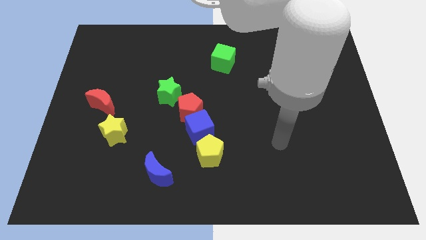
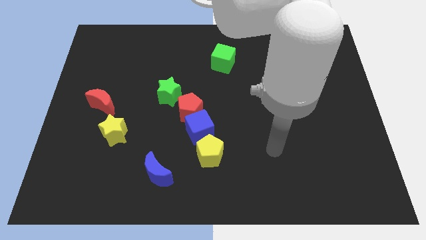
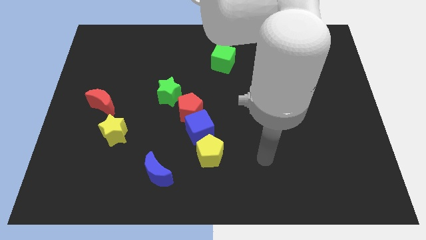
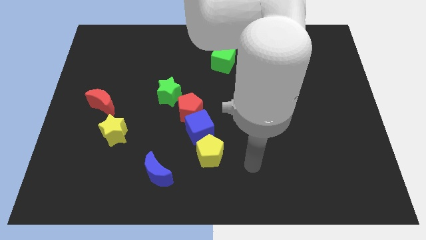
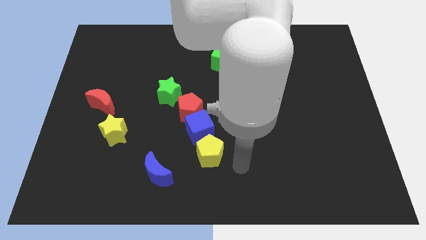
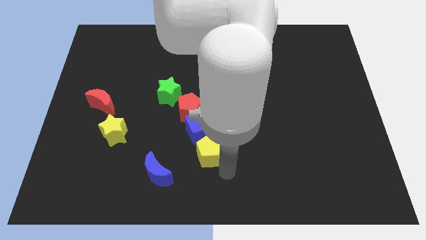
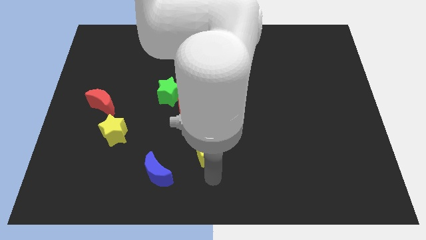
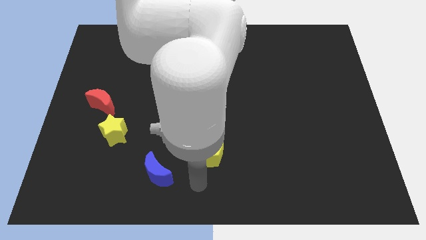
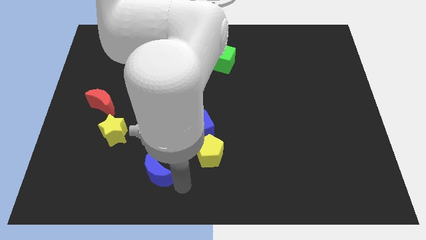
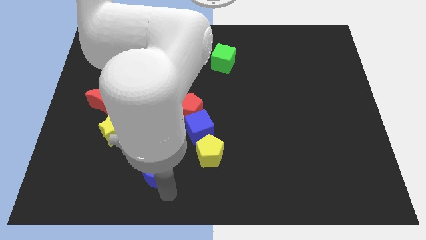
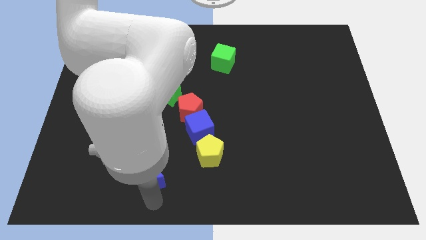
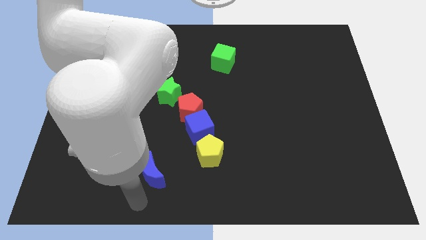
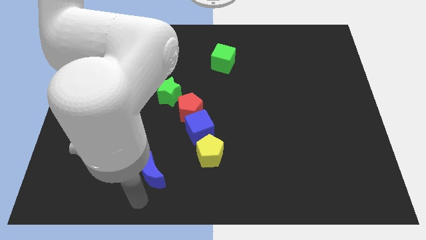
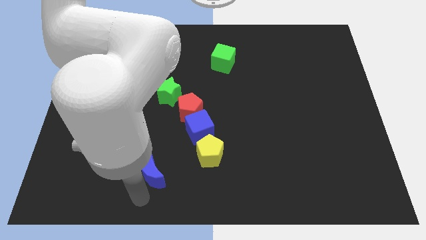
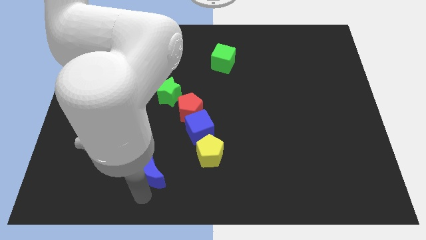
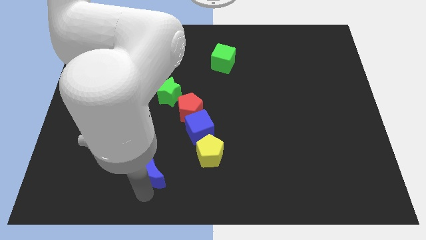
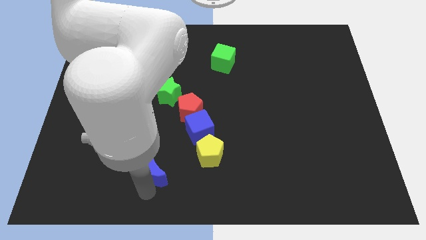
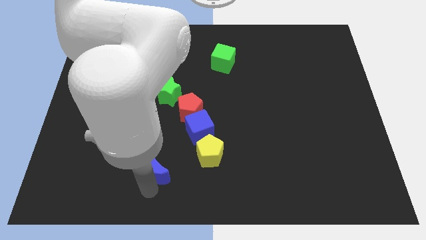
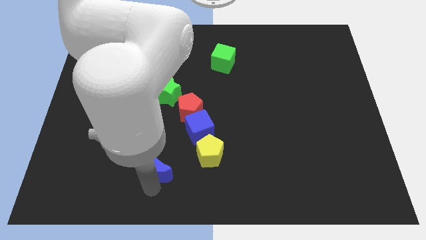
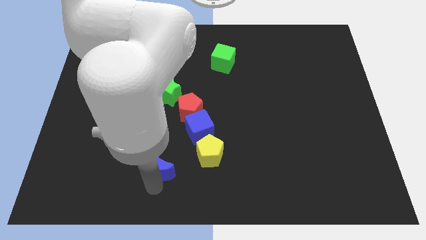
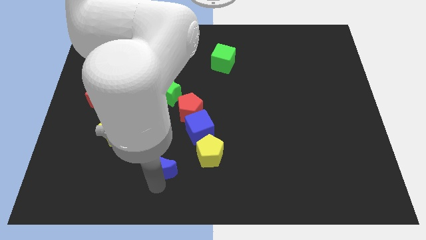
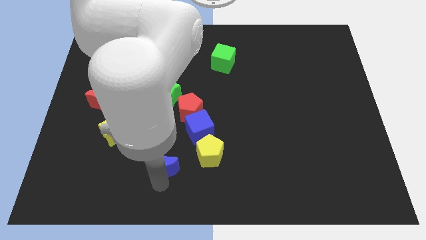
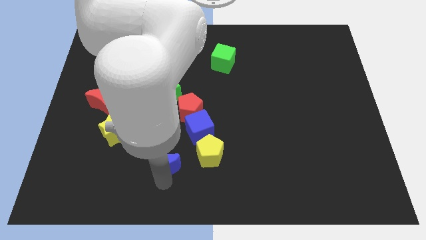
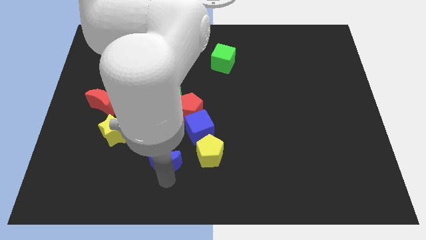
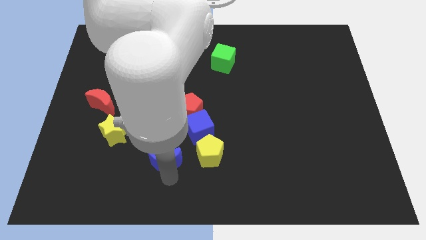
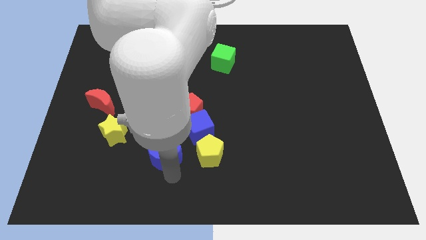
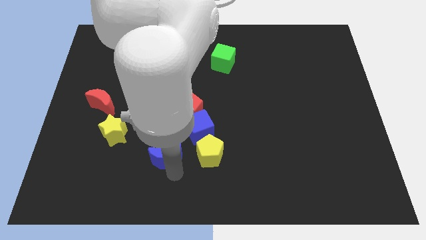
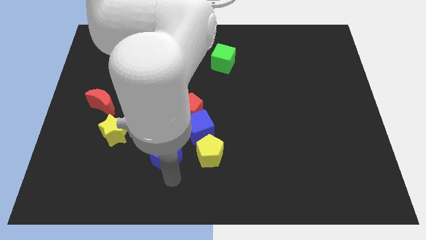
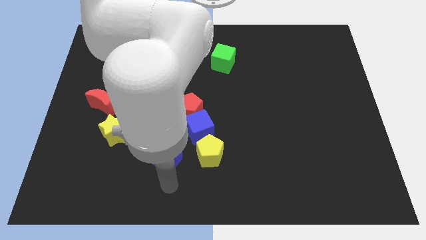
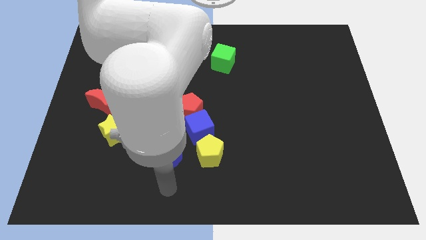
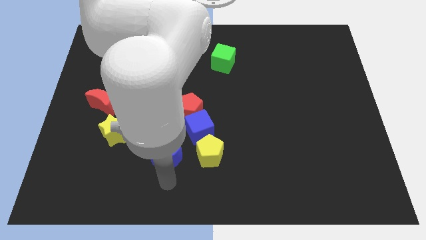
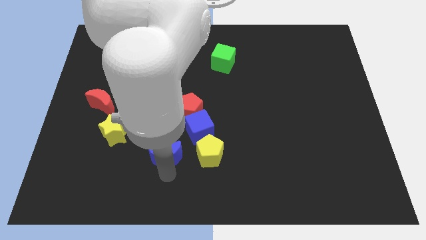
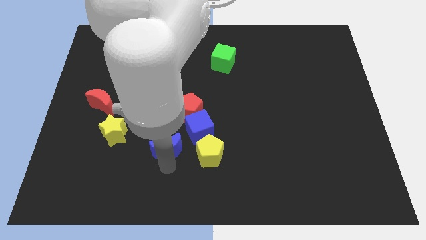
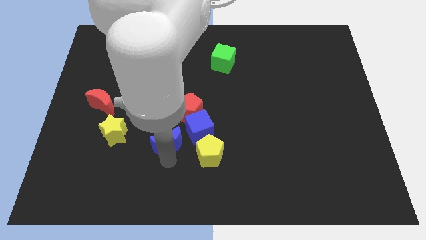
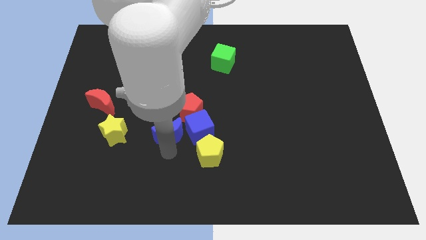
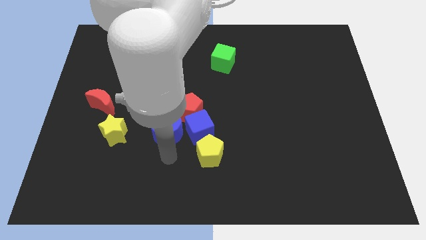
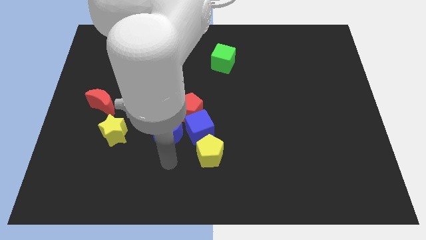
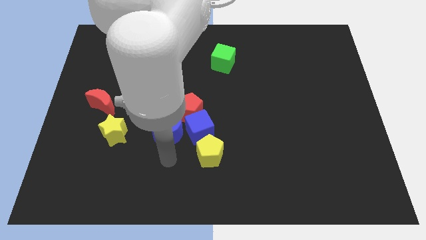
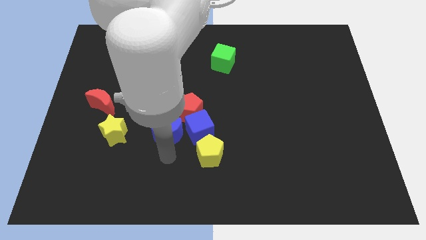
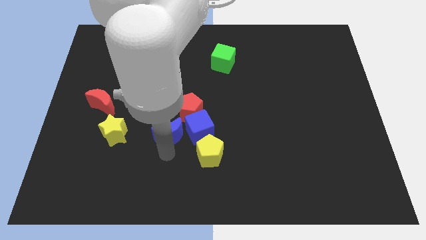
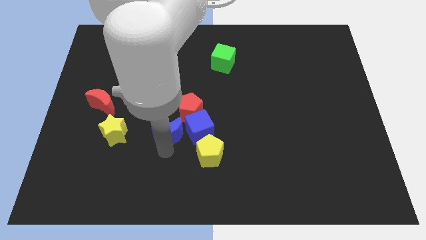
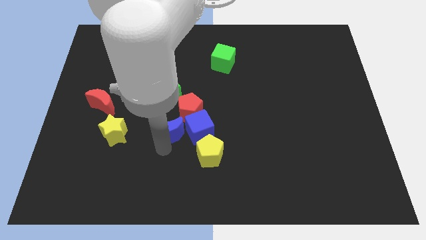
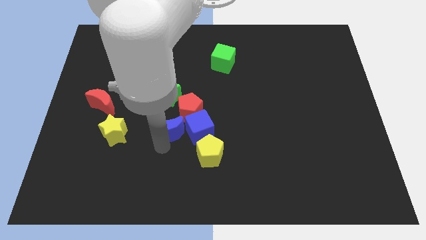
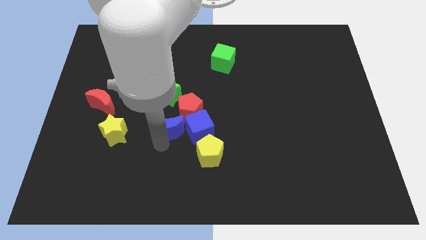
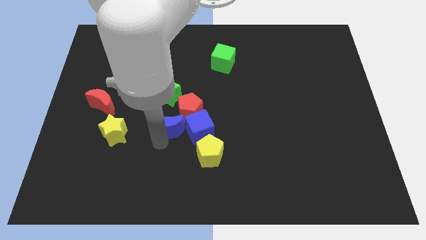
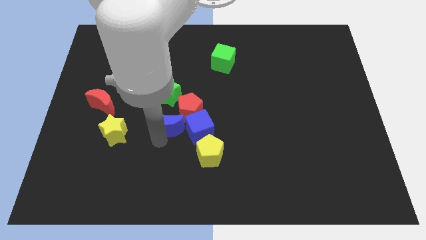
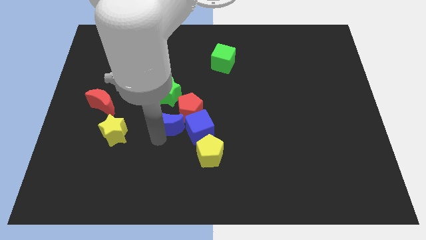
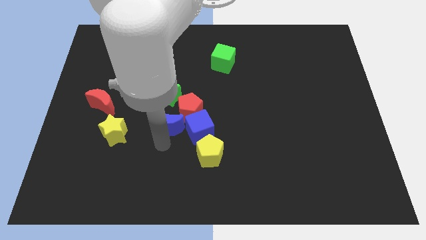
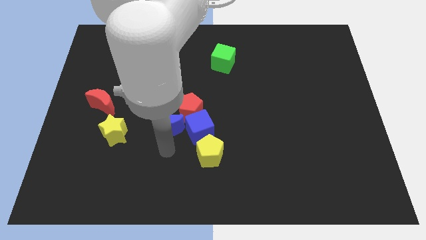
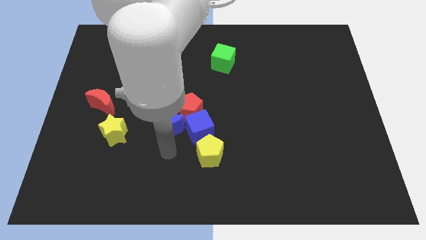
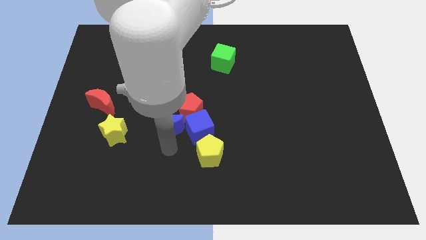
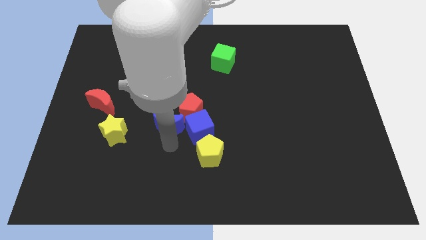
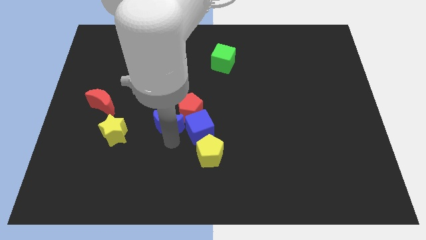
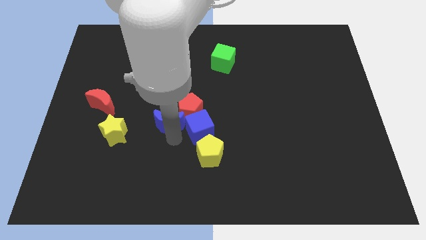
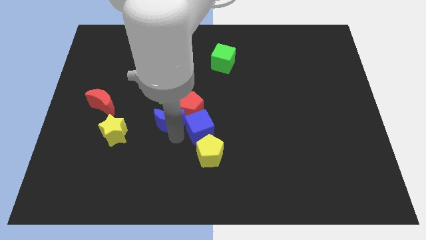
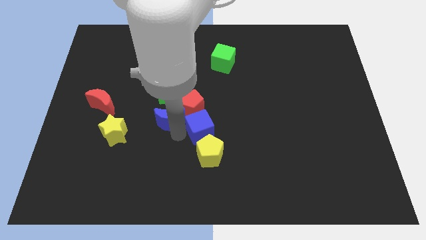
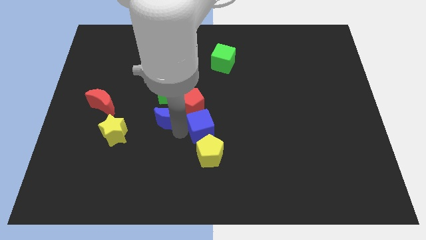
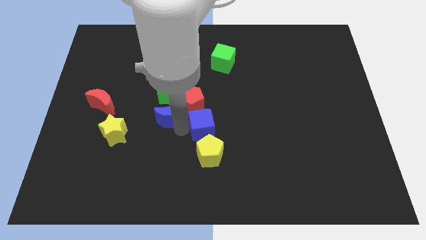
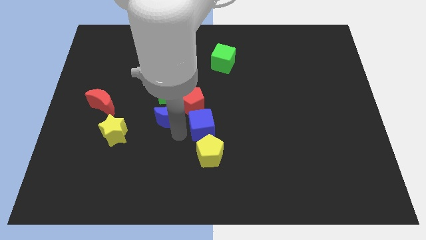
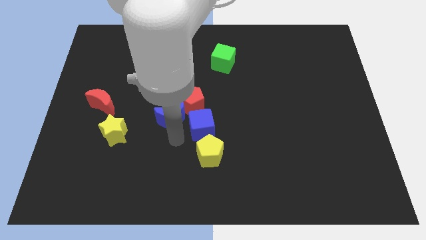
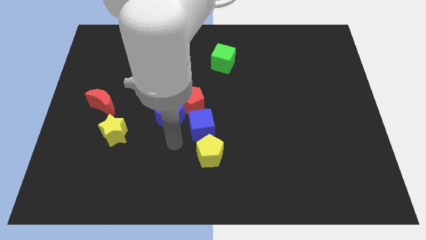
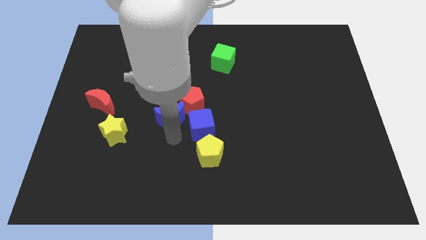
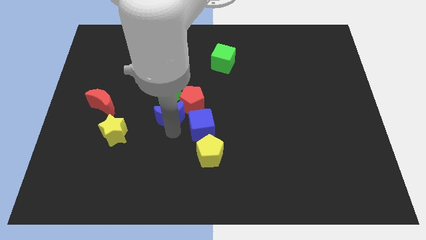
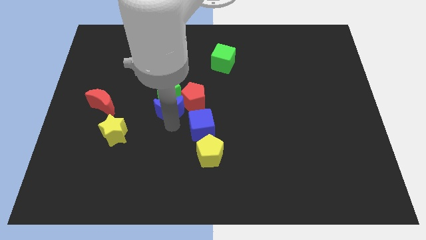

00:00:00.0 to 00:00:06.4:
push the blue moon next to the green star
